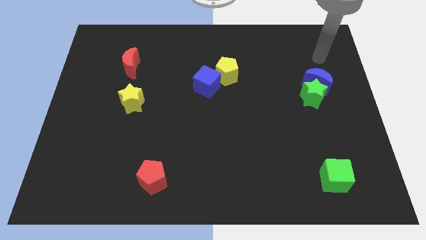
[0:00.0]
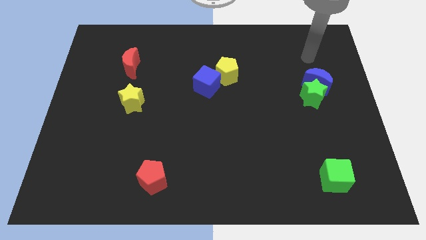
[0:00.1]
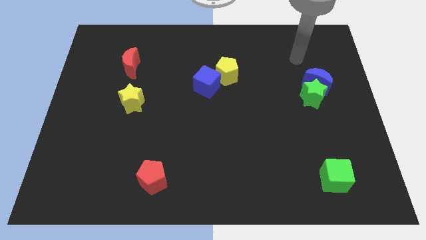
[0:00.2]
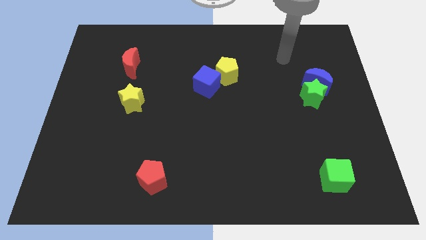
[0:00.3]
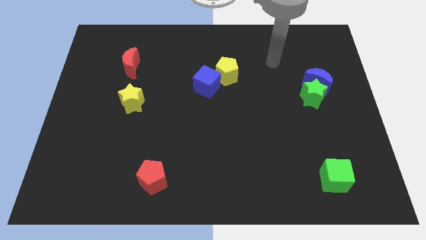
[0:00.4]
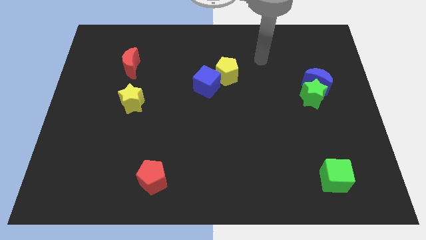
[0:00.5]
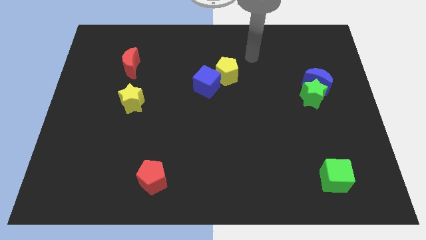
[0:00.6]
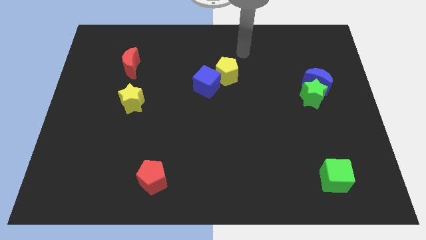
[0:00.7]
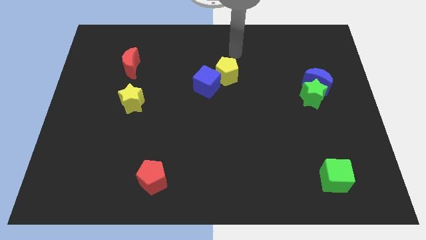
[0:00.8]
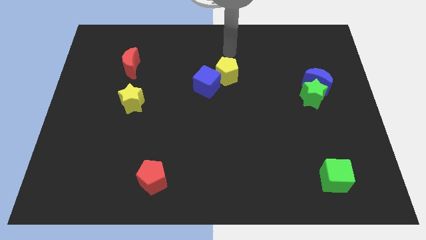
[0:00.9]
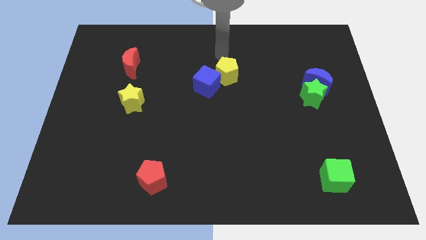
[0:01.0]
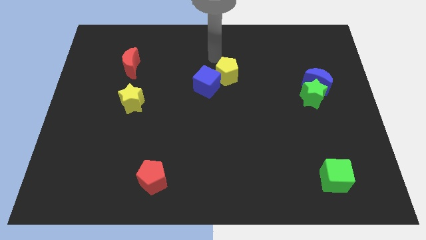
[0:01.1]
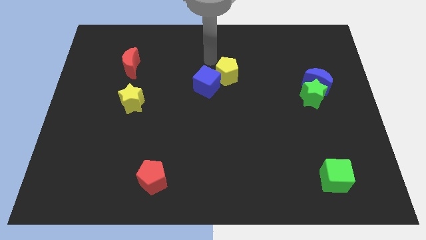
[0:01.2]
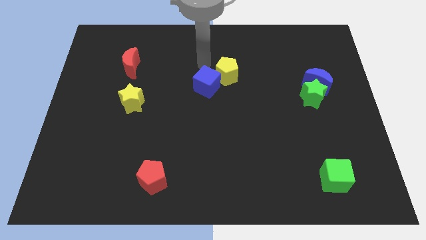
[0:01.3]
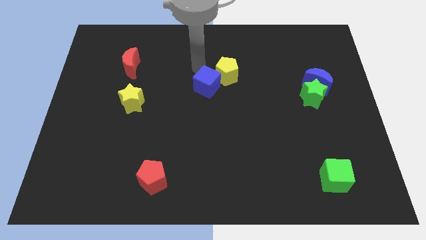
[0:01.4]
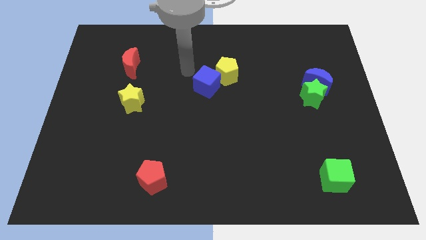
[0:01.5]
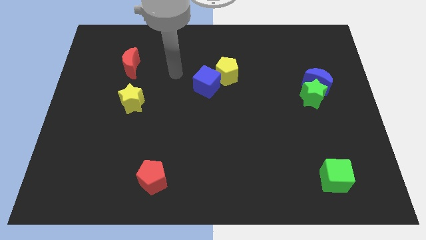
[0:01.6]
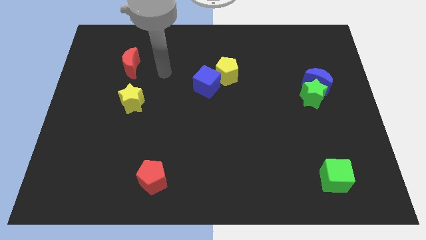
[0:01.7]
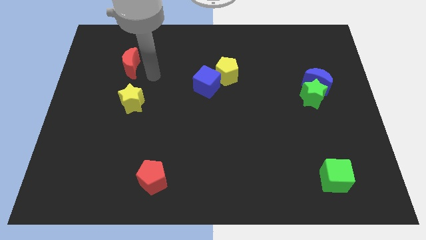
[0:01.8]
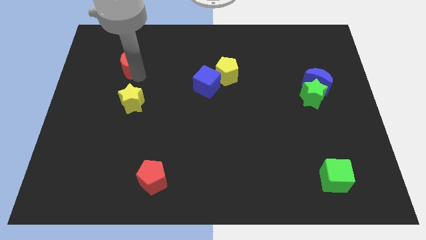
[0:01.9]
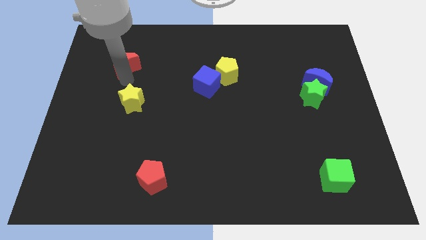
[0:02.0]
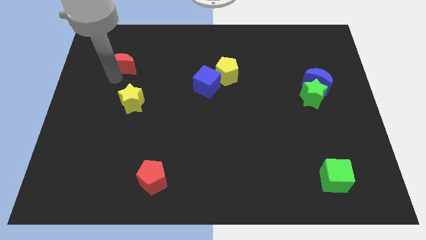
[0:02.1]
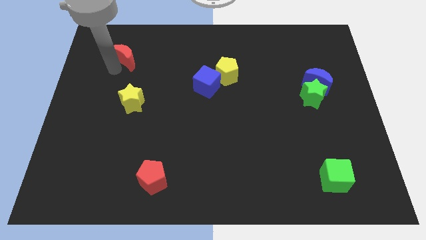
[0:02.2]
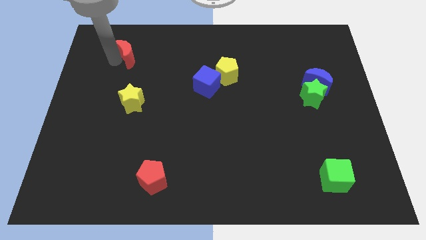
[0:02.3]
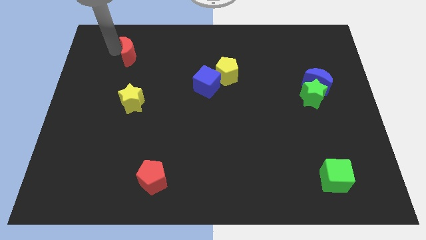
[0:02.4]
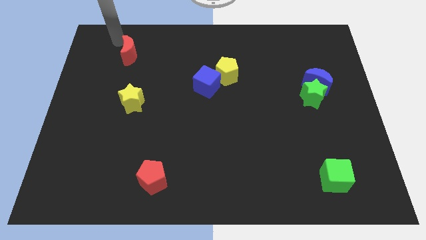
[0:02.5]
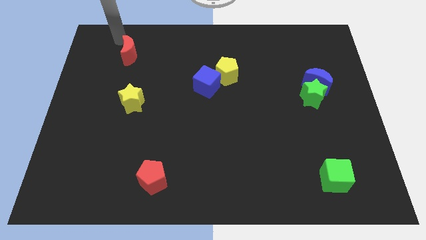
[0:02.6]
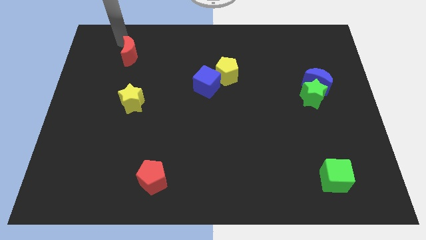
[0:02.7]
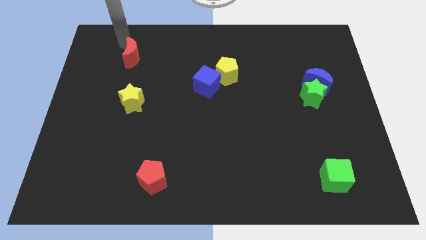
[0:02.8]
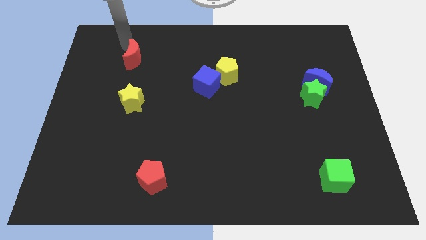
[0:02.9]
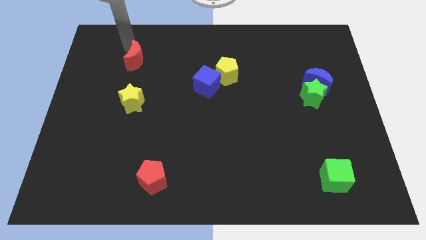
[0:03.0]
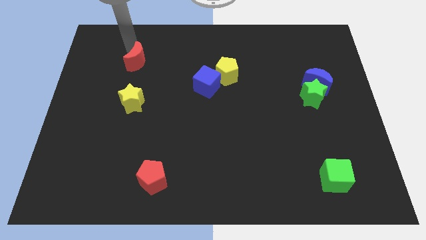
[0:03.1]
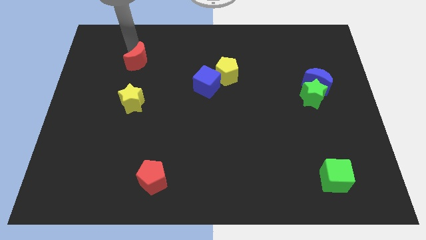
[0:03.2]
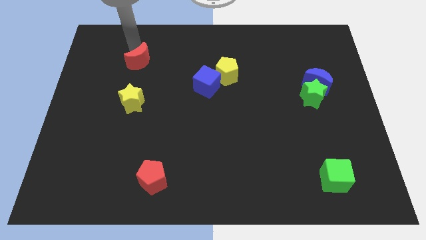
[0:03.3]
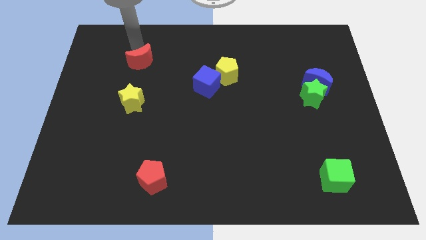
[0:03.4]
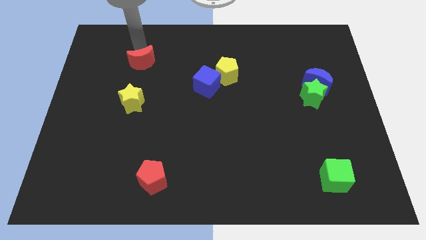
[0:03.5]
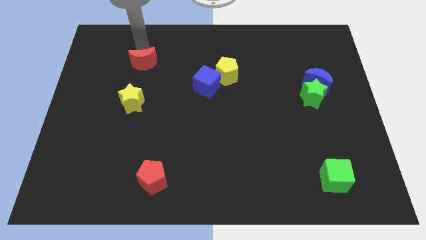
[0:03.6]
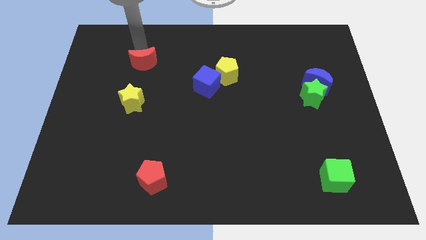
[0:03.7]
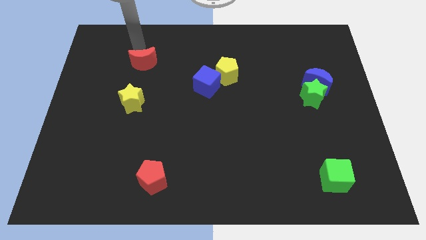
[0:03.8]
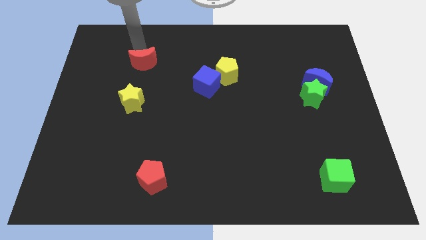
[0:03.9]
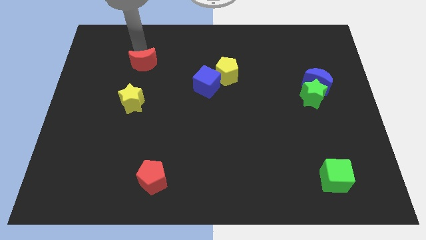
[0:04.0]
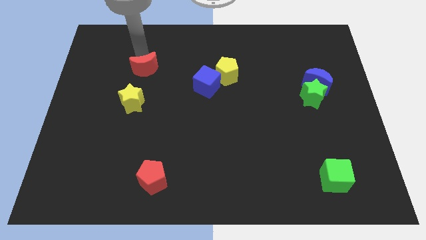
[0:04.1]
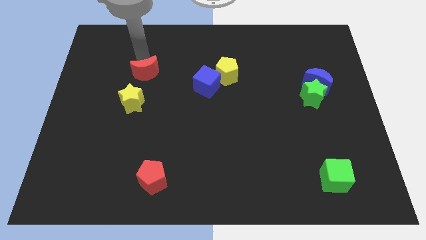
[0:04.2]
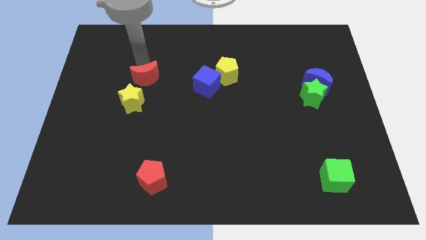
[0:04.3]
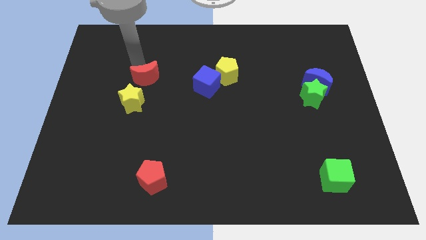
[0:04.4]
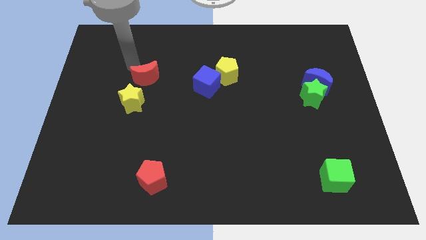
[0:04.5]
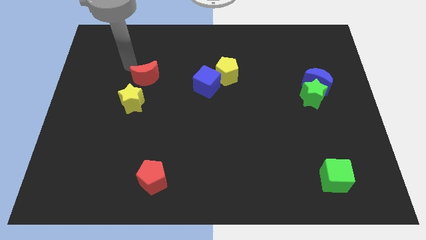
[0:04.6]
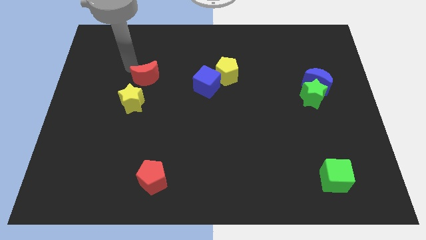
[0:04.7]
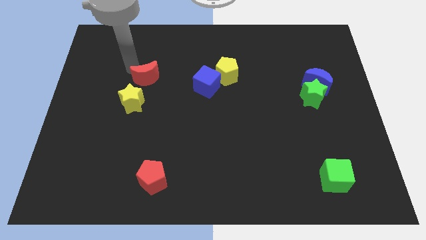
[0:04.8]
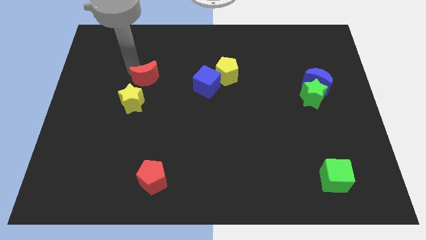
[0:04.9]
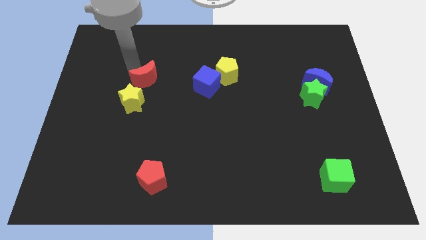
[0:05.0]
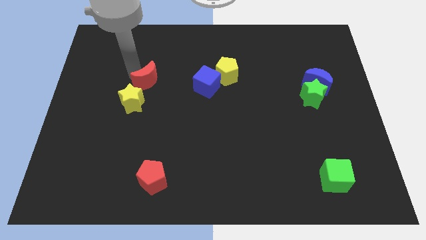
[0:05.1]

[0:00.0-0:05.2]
push the red moon downwards and then to the right slightly

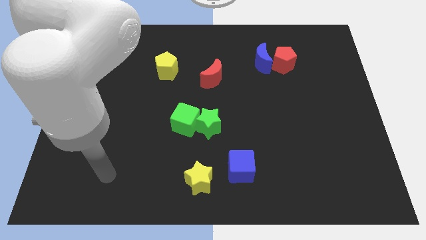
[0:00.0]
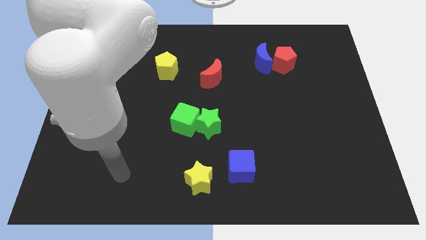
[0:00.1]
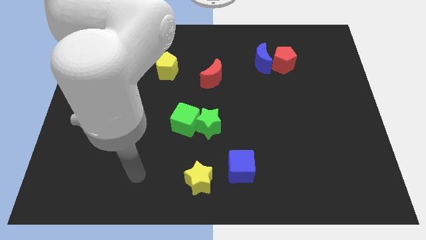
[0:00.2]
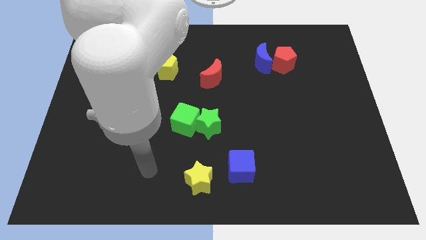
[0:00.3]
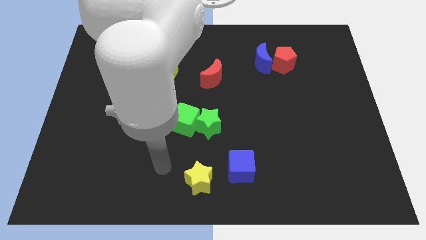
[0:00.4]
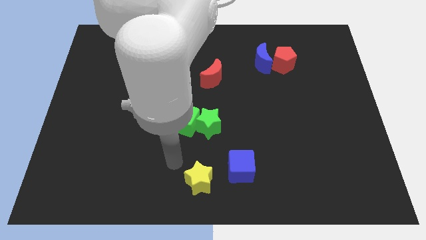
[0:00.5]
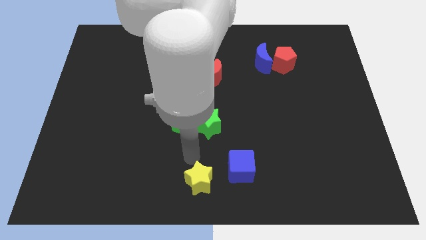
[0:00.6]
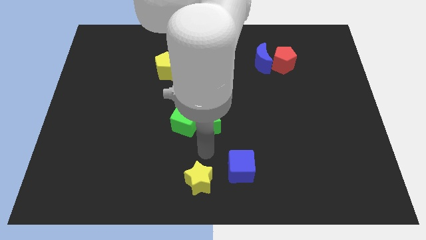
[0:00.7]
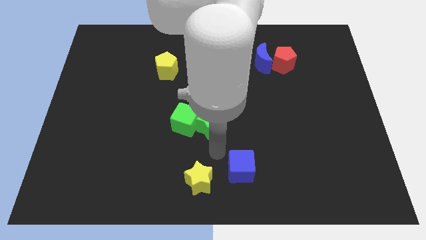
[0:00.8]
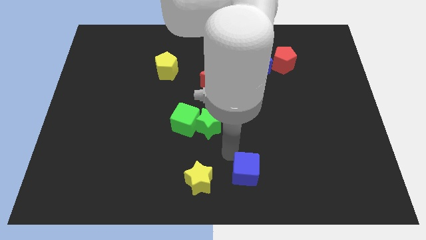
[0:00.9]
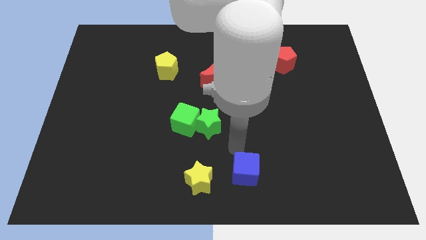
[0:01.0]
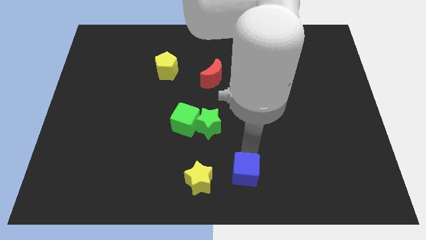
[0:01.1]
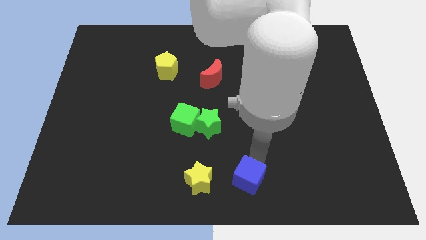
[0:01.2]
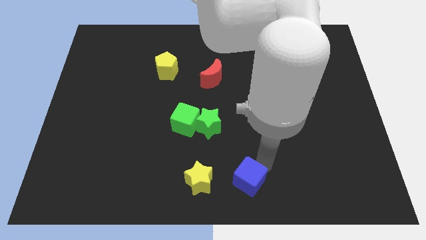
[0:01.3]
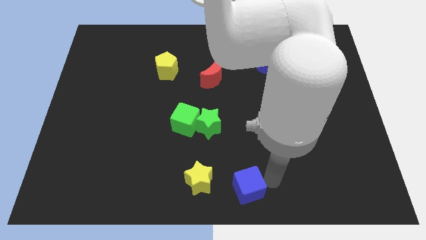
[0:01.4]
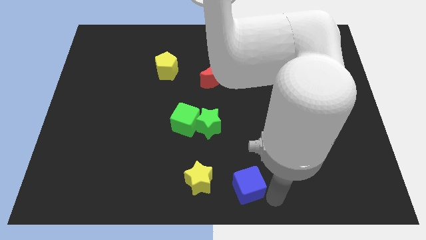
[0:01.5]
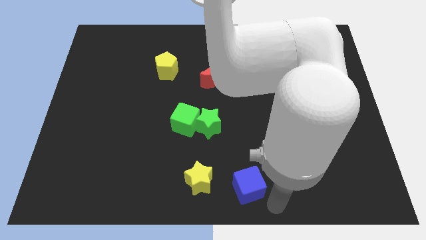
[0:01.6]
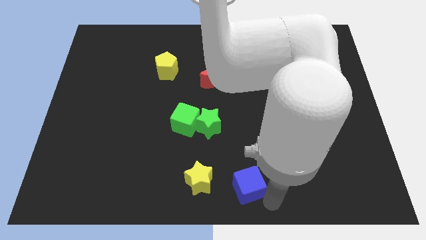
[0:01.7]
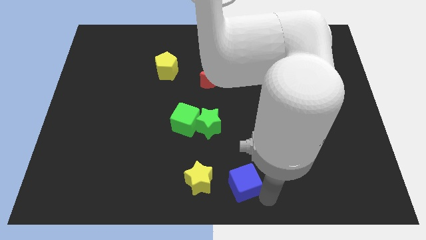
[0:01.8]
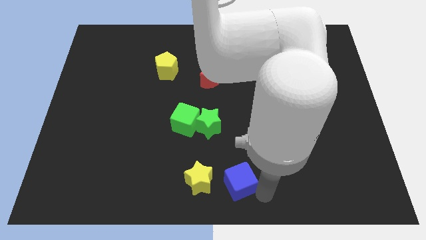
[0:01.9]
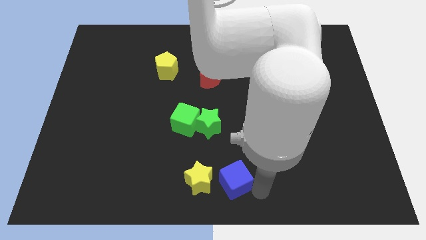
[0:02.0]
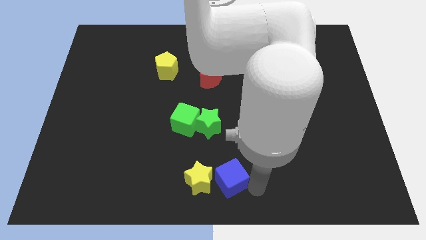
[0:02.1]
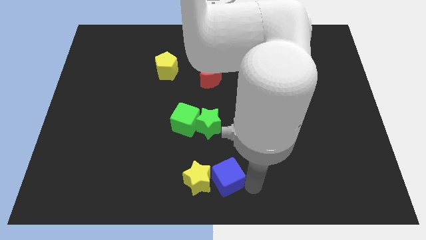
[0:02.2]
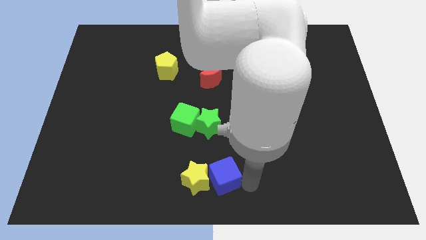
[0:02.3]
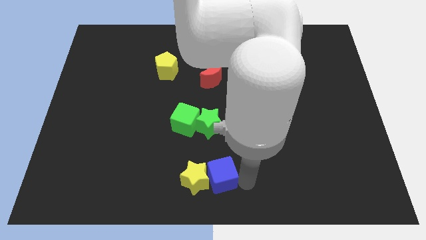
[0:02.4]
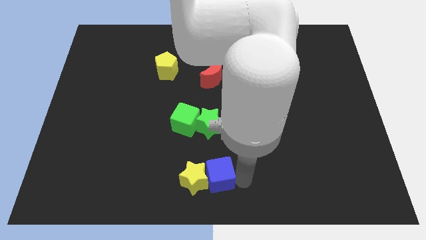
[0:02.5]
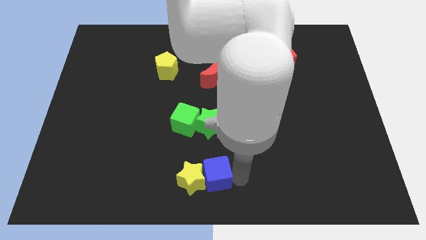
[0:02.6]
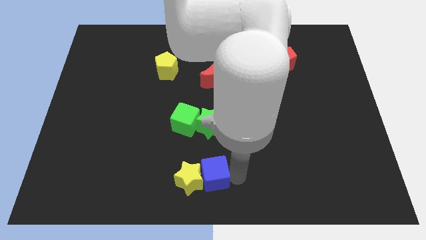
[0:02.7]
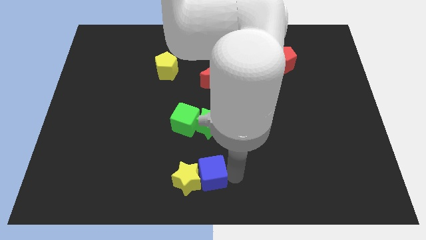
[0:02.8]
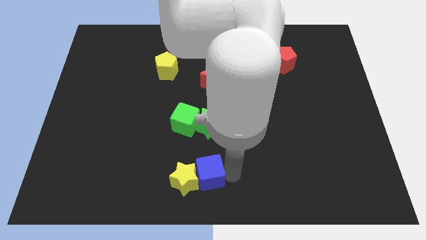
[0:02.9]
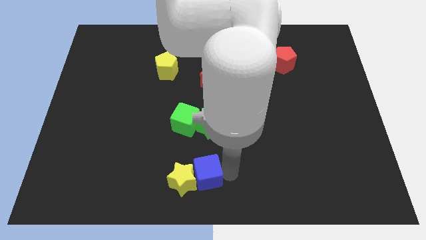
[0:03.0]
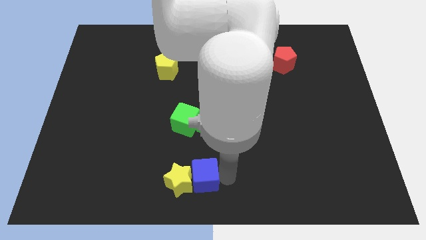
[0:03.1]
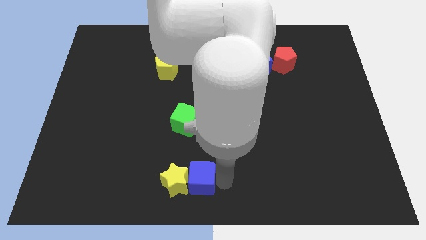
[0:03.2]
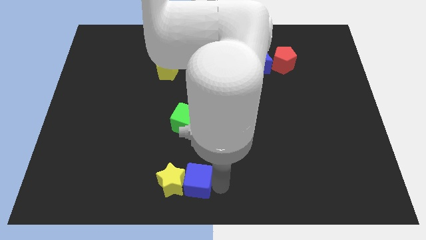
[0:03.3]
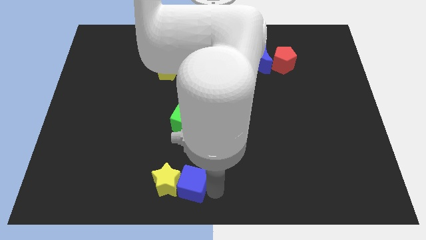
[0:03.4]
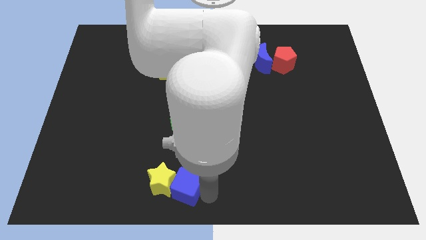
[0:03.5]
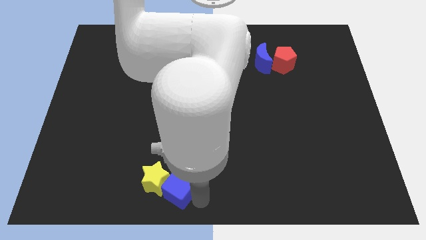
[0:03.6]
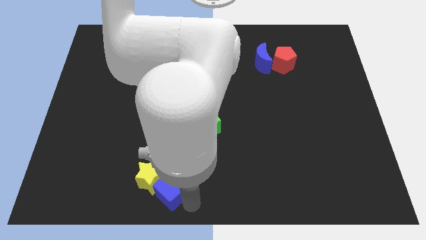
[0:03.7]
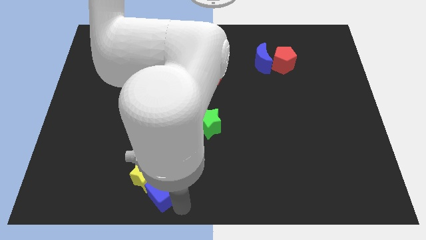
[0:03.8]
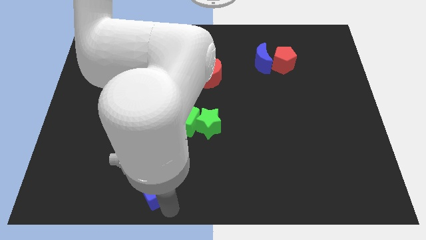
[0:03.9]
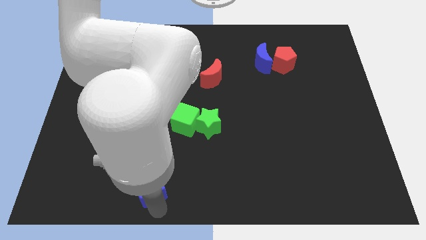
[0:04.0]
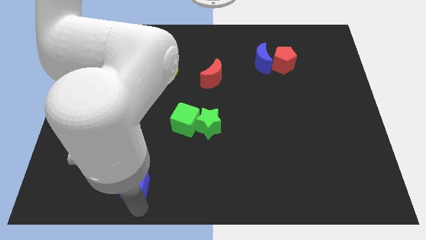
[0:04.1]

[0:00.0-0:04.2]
push the blue cube to the left
